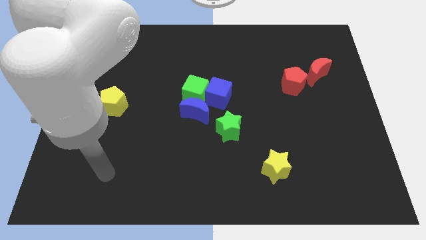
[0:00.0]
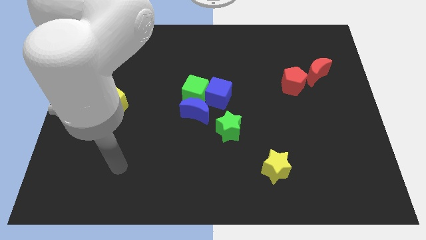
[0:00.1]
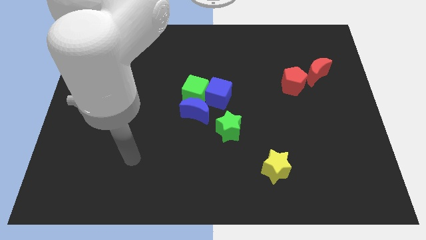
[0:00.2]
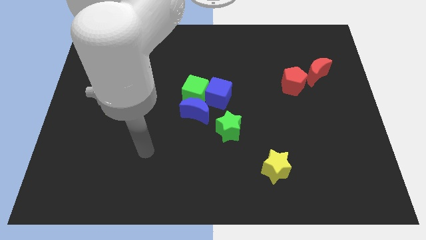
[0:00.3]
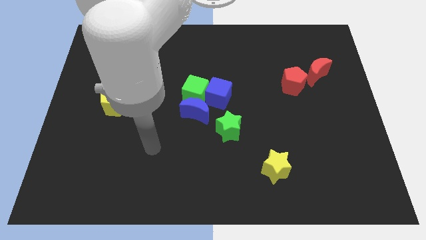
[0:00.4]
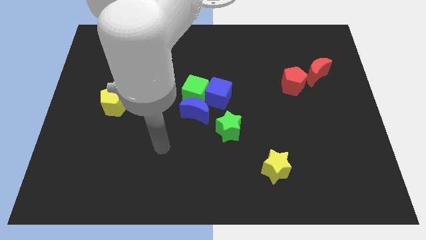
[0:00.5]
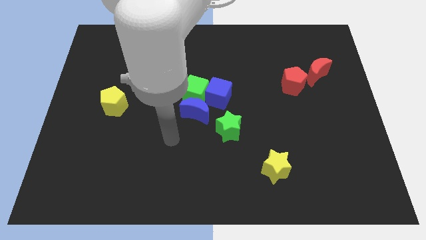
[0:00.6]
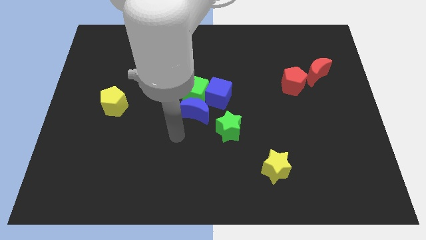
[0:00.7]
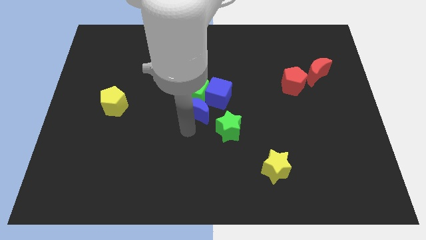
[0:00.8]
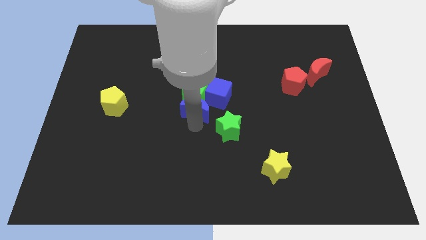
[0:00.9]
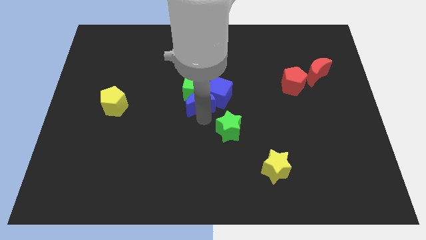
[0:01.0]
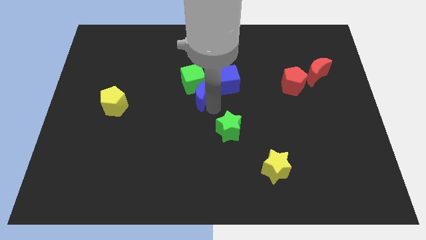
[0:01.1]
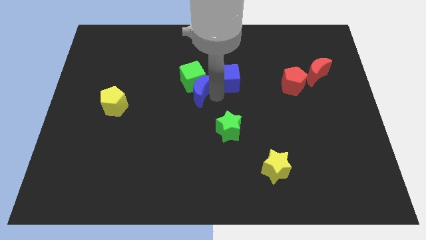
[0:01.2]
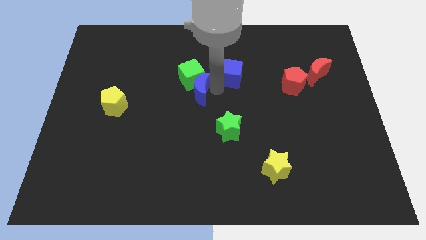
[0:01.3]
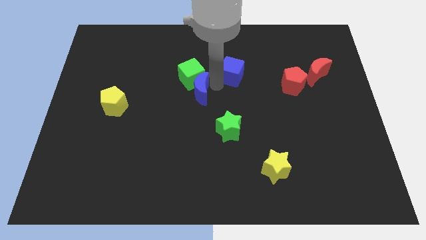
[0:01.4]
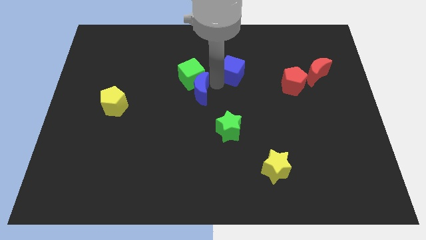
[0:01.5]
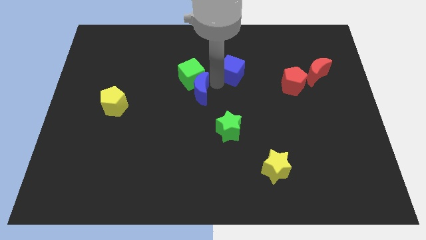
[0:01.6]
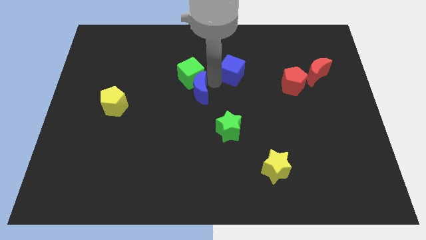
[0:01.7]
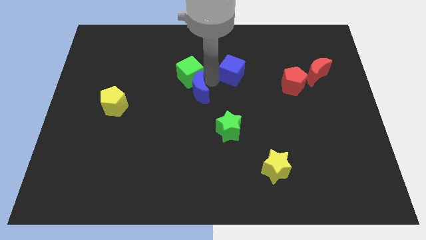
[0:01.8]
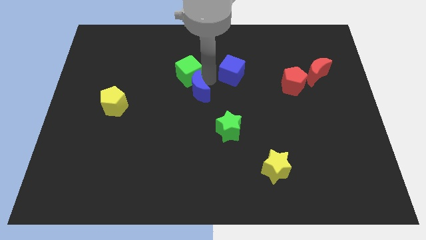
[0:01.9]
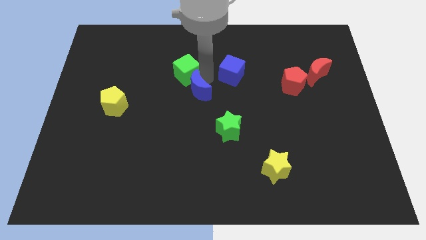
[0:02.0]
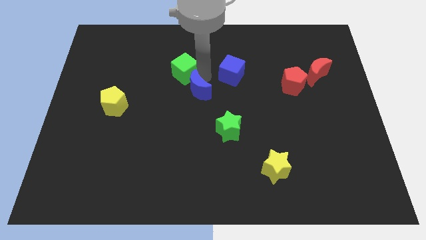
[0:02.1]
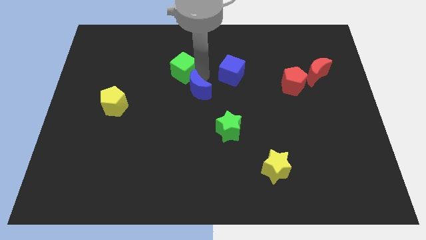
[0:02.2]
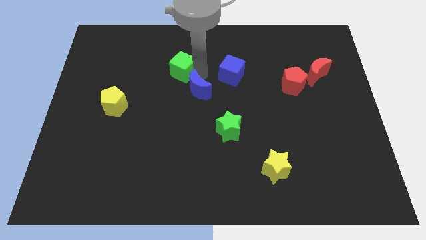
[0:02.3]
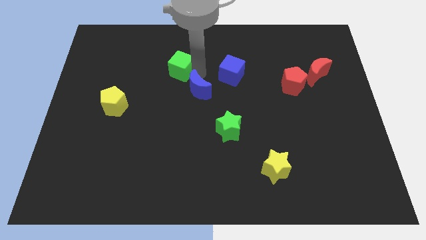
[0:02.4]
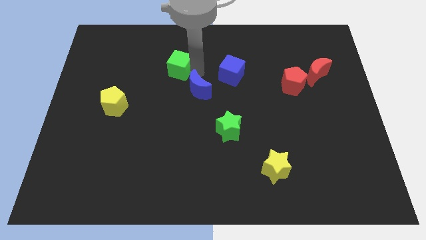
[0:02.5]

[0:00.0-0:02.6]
separate the green cube from the blue cube and blue moon

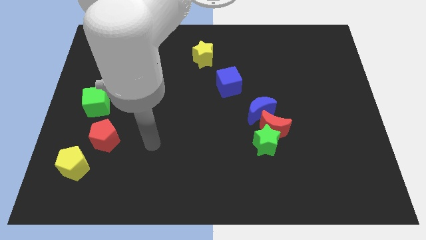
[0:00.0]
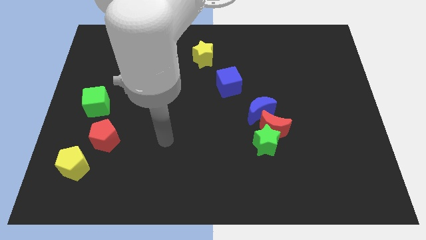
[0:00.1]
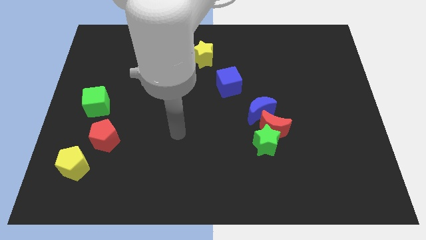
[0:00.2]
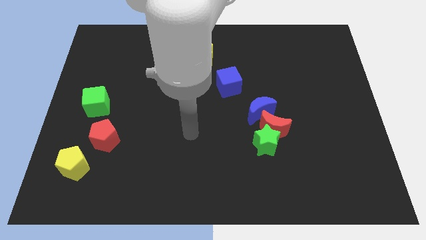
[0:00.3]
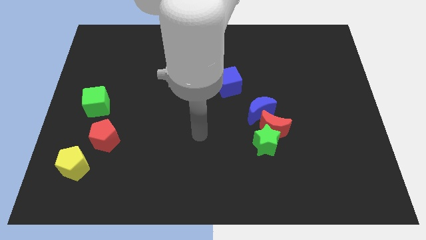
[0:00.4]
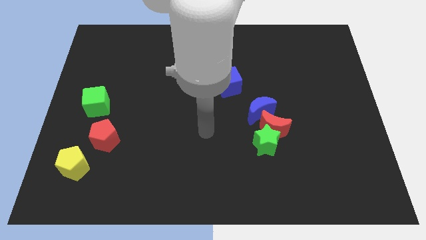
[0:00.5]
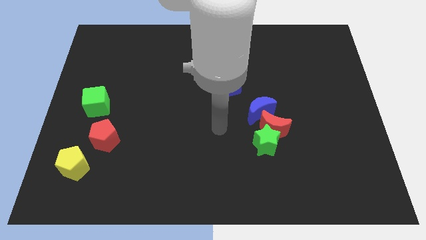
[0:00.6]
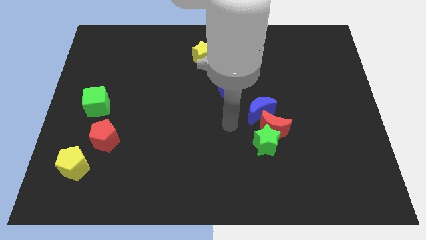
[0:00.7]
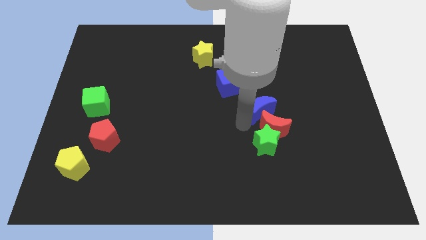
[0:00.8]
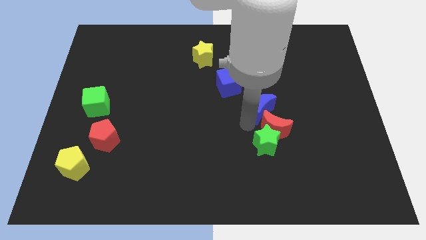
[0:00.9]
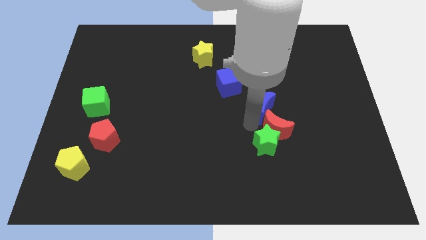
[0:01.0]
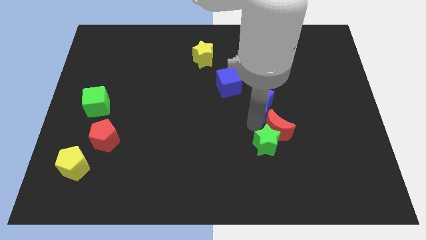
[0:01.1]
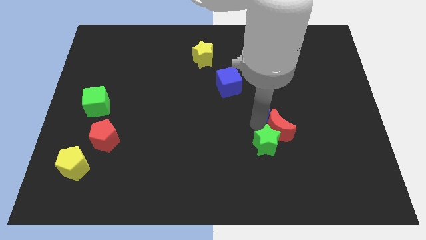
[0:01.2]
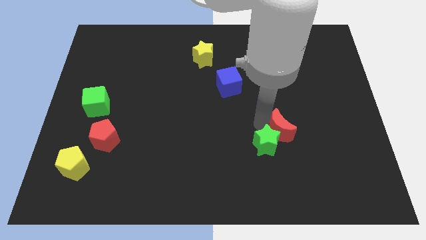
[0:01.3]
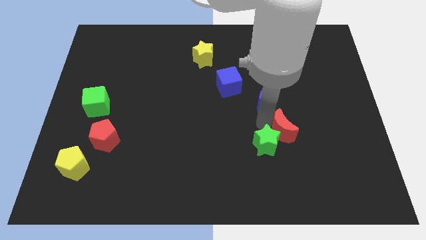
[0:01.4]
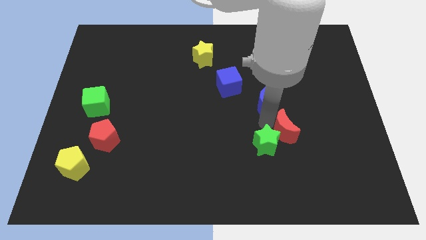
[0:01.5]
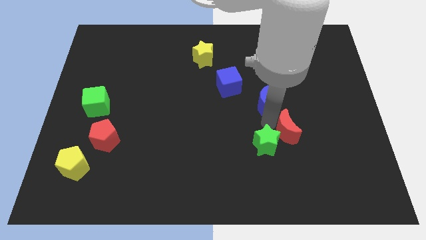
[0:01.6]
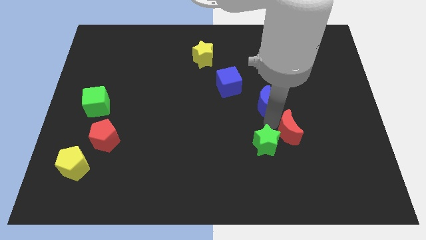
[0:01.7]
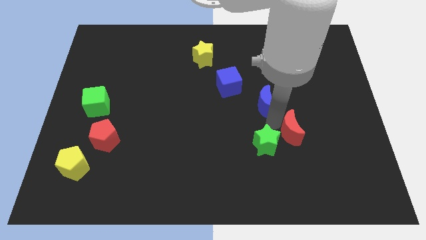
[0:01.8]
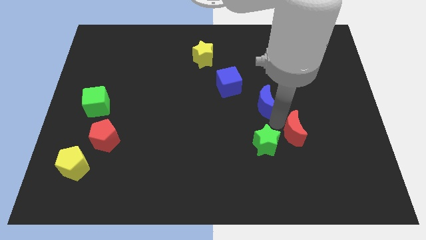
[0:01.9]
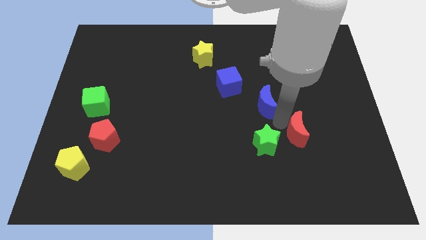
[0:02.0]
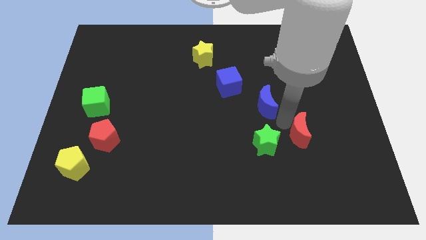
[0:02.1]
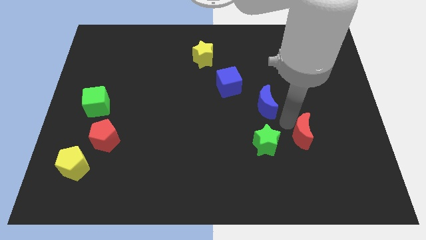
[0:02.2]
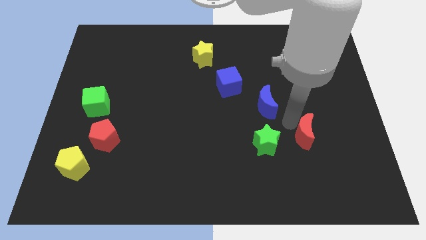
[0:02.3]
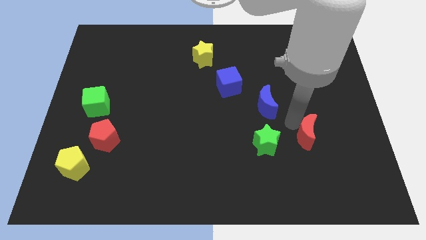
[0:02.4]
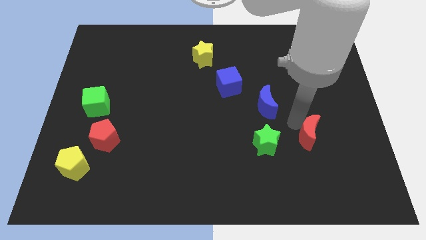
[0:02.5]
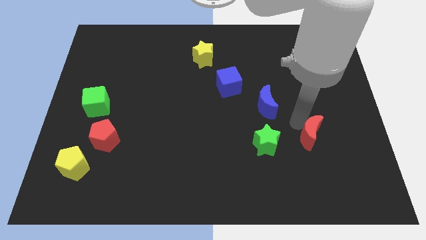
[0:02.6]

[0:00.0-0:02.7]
separate the red moon from the green star and blue moon

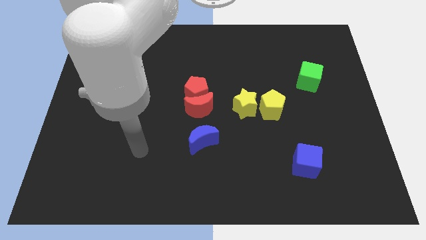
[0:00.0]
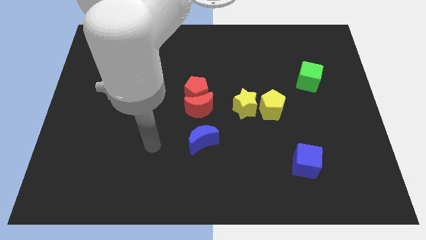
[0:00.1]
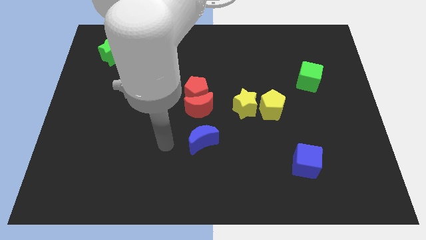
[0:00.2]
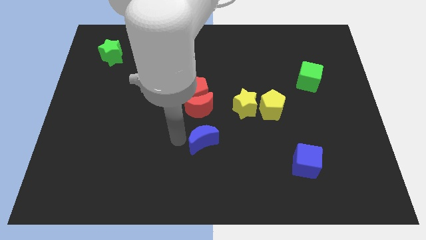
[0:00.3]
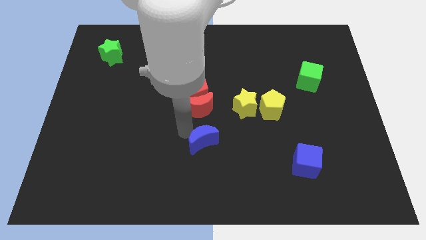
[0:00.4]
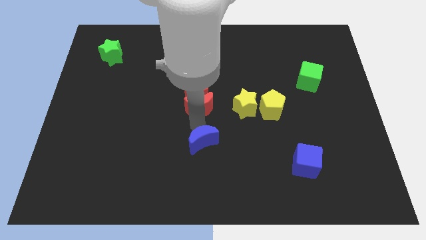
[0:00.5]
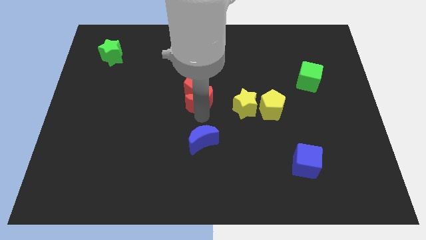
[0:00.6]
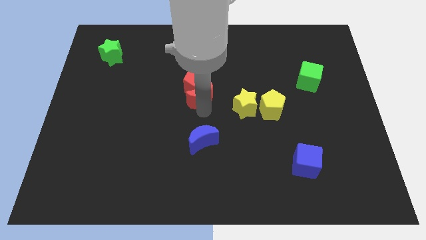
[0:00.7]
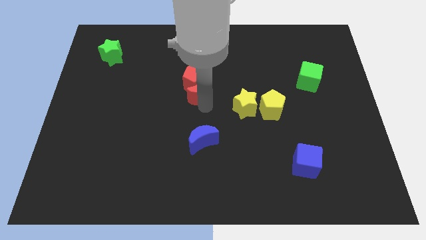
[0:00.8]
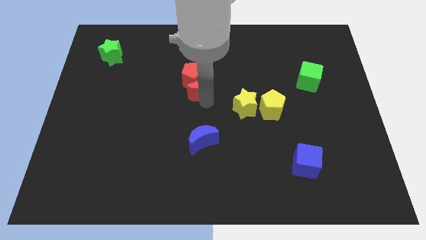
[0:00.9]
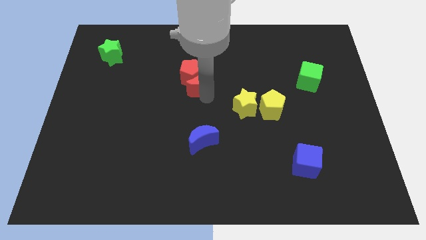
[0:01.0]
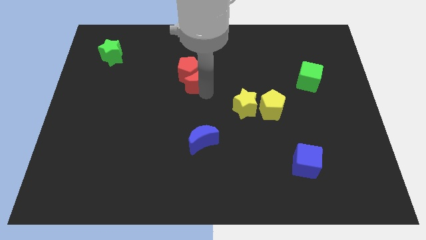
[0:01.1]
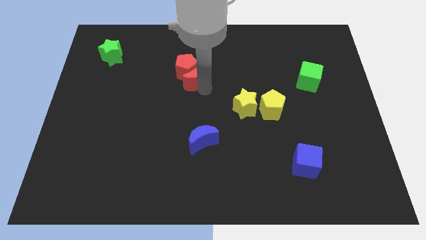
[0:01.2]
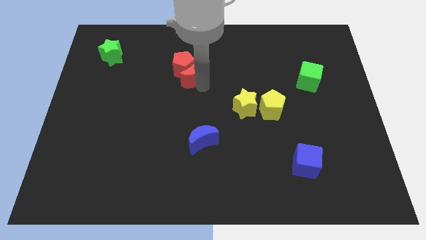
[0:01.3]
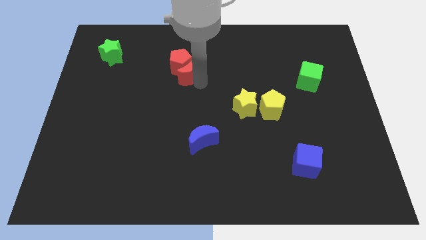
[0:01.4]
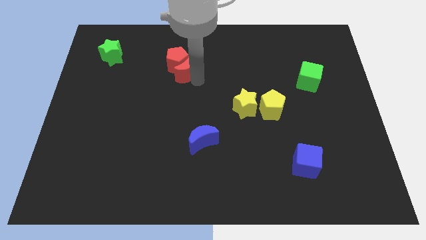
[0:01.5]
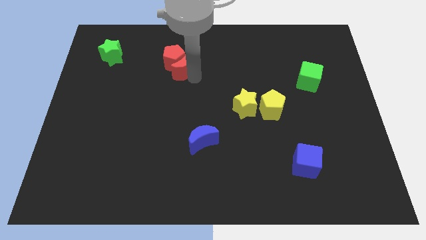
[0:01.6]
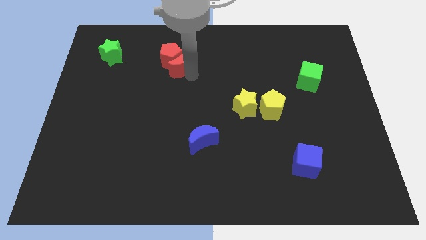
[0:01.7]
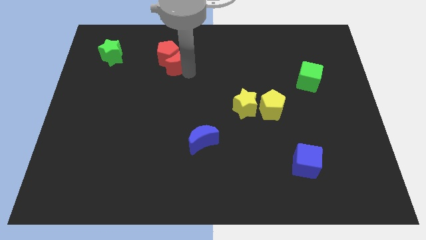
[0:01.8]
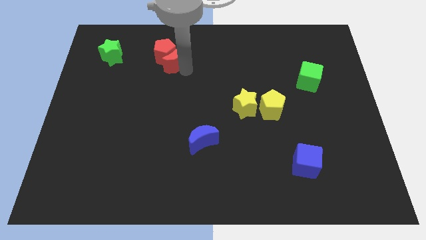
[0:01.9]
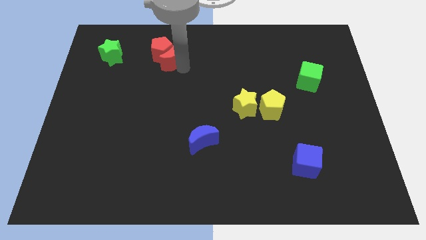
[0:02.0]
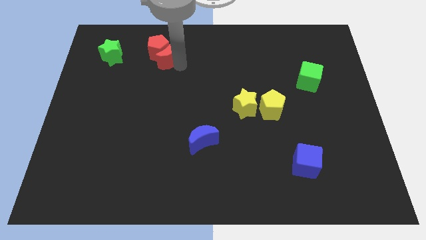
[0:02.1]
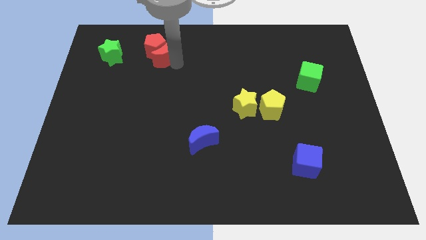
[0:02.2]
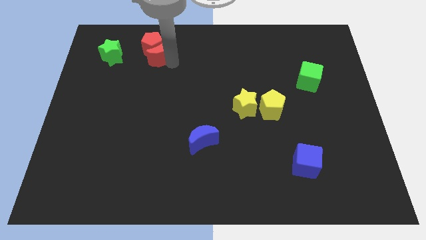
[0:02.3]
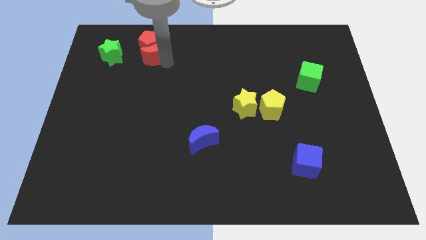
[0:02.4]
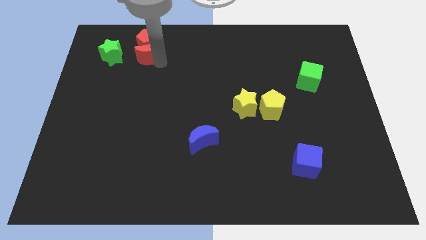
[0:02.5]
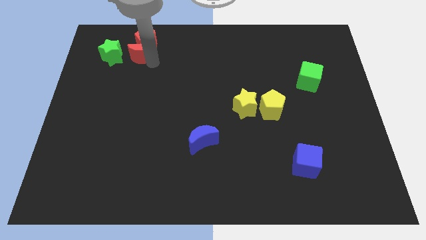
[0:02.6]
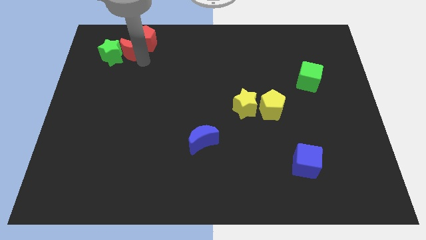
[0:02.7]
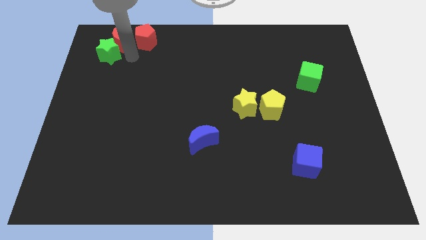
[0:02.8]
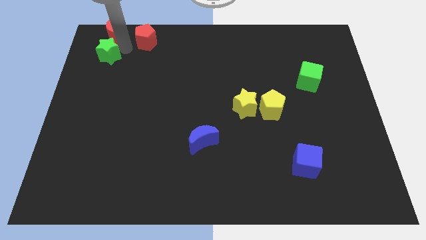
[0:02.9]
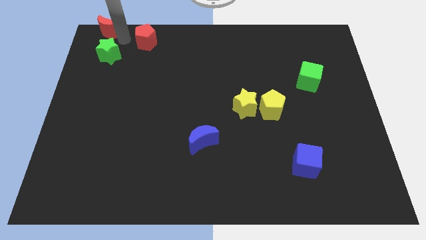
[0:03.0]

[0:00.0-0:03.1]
separate the red pentagon from the red moon

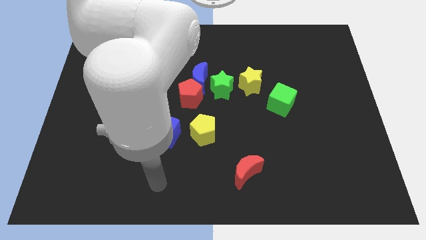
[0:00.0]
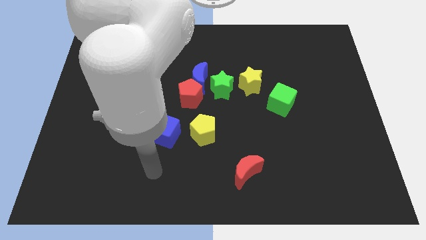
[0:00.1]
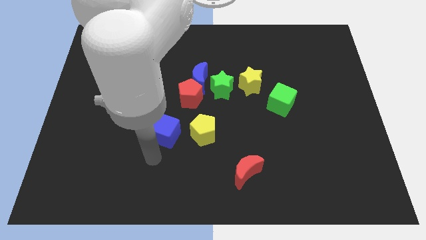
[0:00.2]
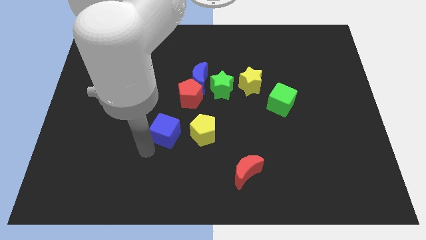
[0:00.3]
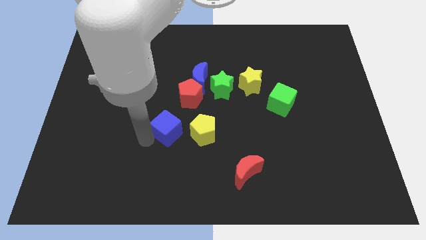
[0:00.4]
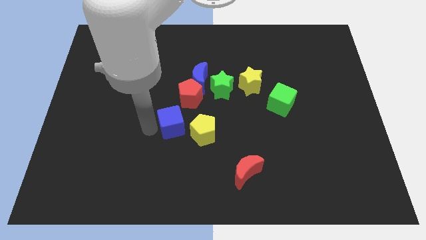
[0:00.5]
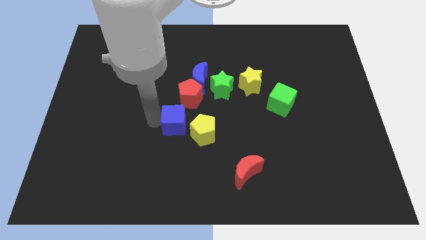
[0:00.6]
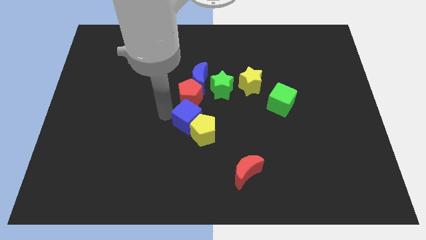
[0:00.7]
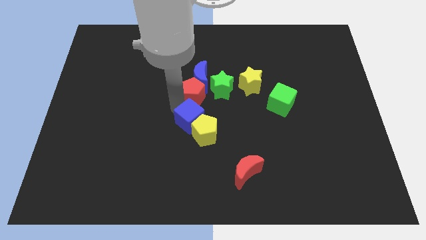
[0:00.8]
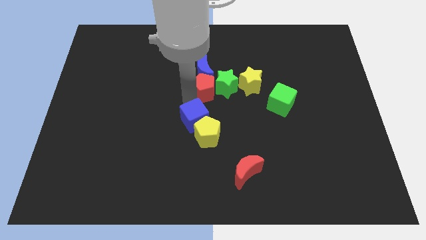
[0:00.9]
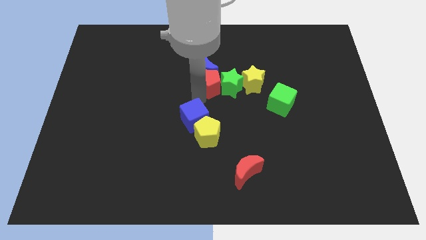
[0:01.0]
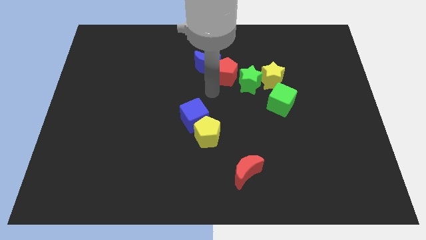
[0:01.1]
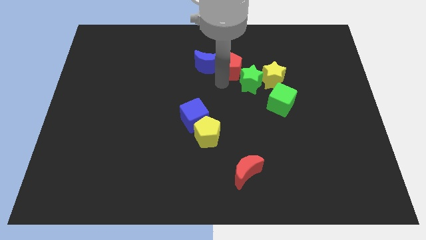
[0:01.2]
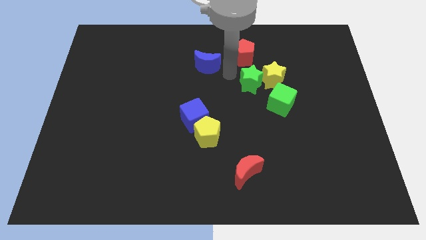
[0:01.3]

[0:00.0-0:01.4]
pull the blue moon apart from the red pentagon and green star
